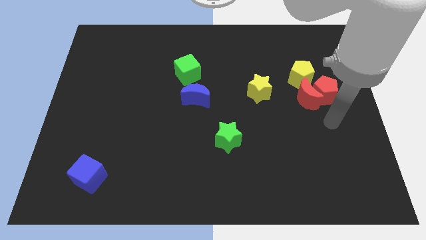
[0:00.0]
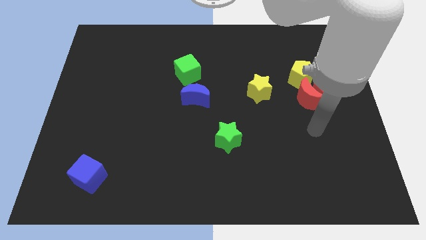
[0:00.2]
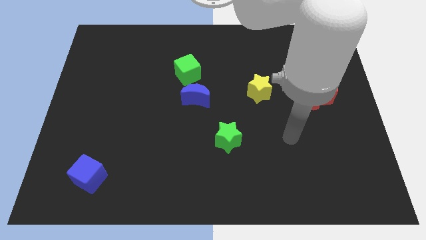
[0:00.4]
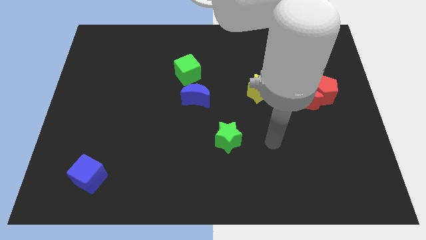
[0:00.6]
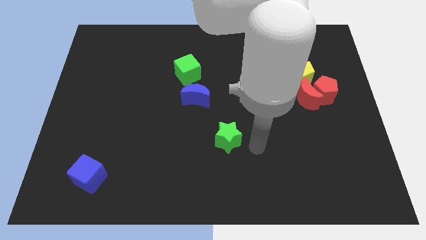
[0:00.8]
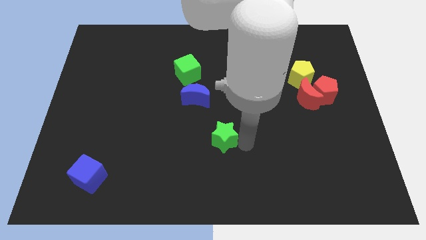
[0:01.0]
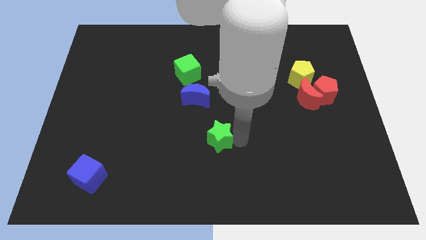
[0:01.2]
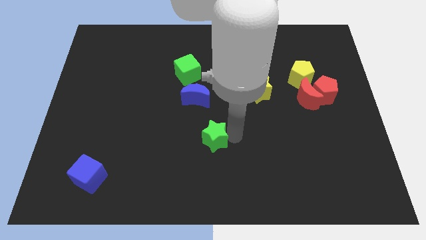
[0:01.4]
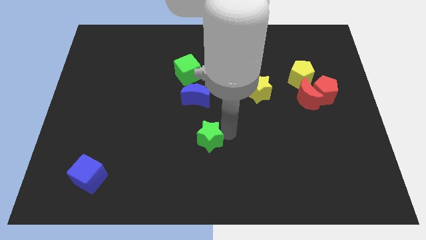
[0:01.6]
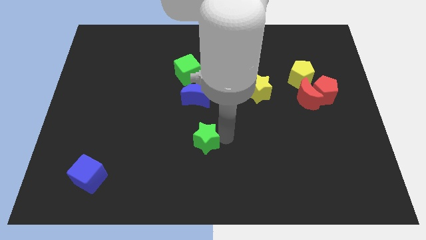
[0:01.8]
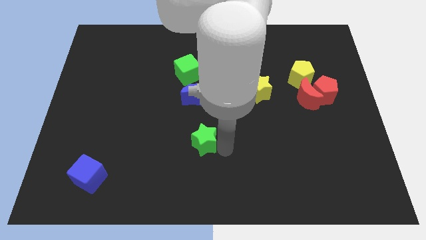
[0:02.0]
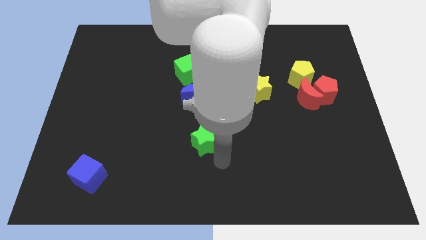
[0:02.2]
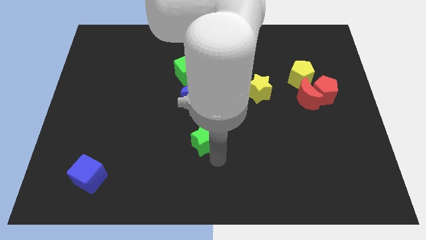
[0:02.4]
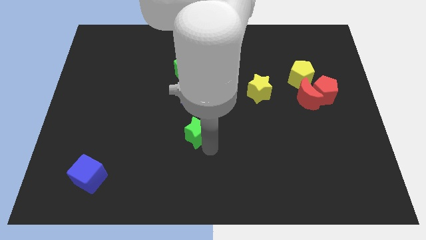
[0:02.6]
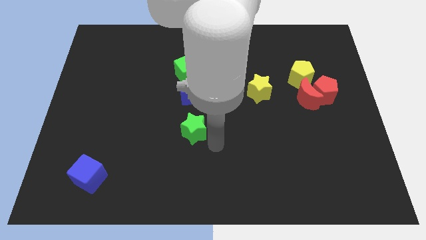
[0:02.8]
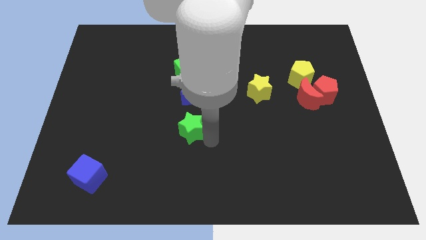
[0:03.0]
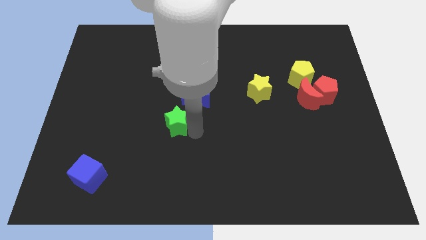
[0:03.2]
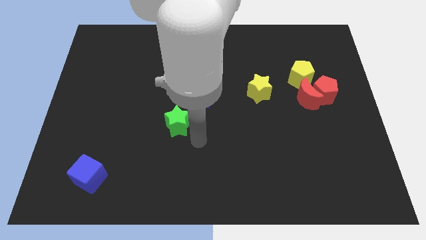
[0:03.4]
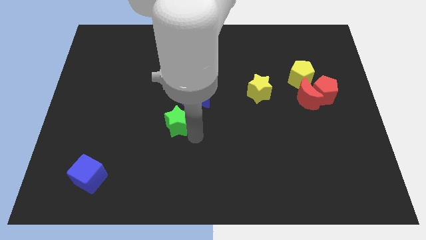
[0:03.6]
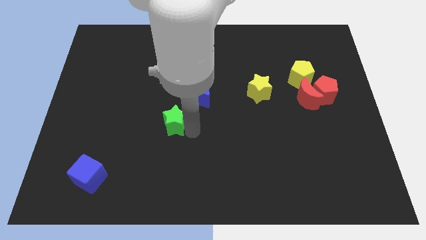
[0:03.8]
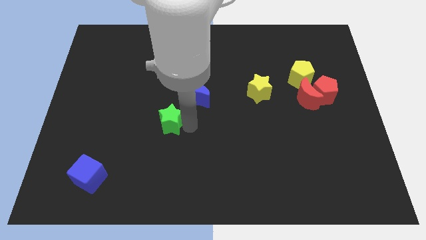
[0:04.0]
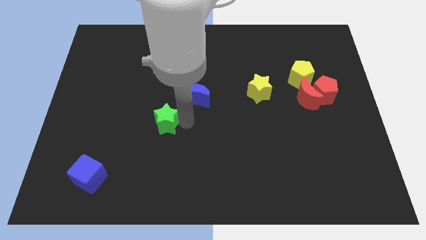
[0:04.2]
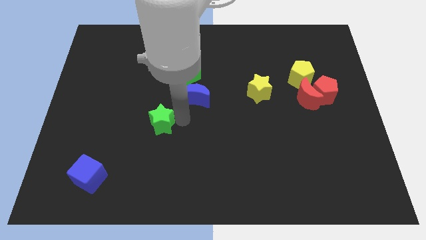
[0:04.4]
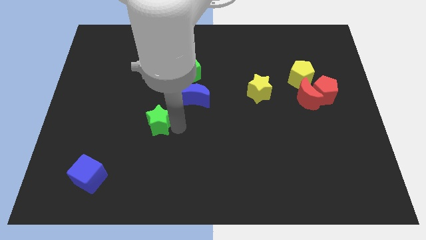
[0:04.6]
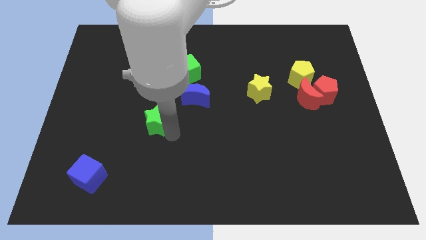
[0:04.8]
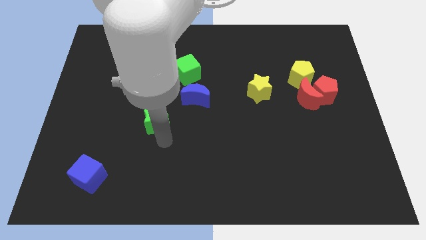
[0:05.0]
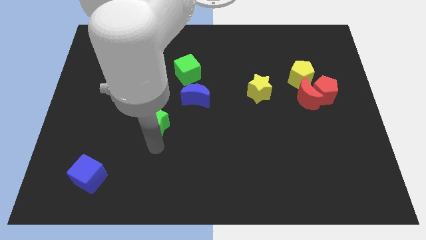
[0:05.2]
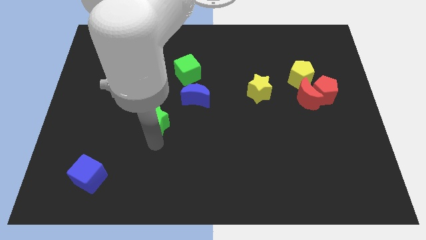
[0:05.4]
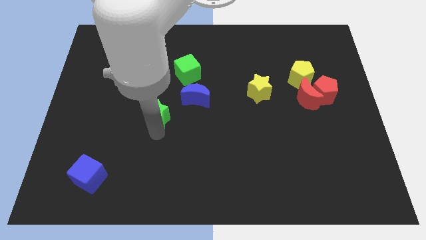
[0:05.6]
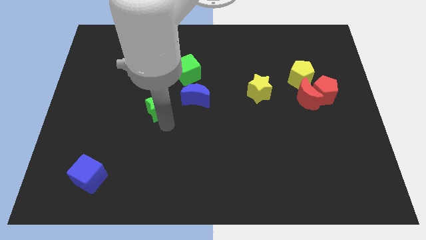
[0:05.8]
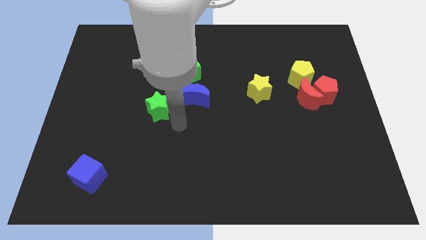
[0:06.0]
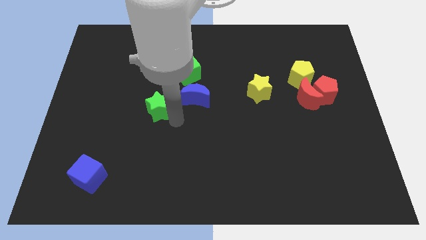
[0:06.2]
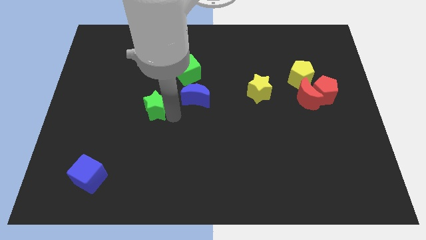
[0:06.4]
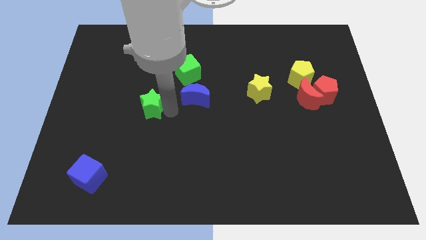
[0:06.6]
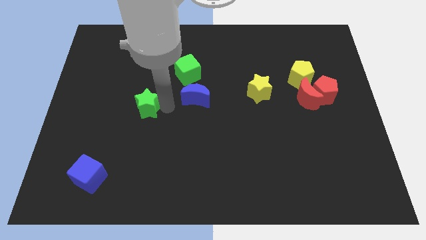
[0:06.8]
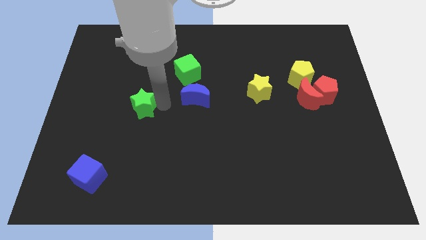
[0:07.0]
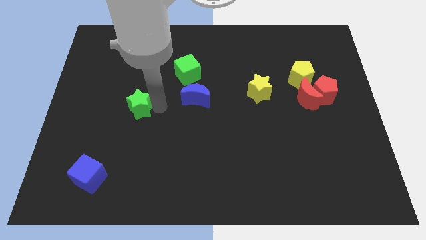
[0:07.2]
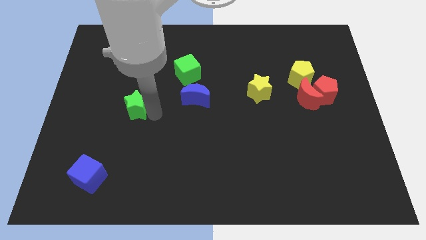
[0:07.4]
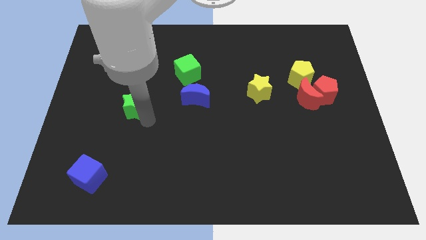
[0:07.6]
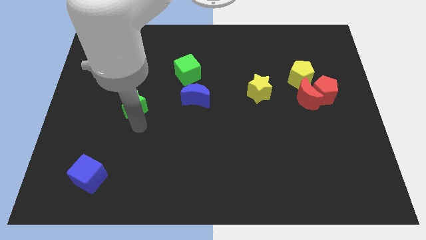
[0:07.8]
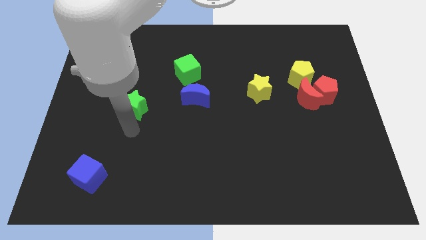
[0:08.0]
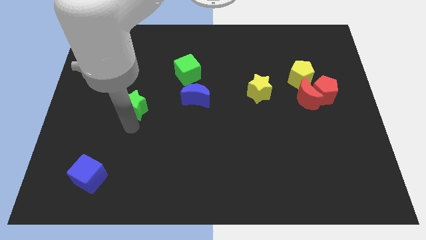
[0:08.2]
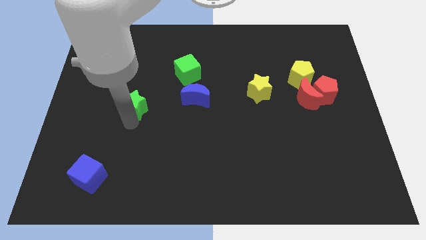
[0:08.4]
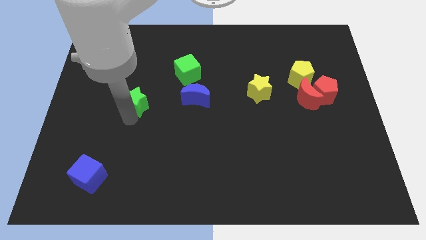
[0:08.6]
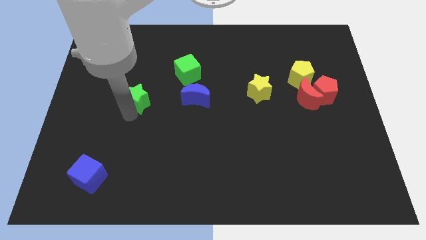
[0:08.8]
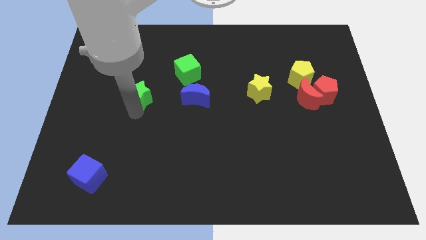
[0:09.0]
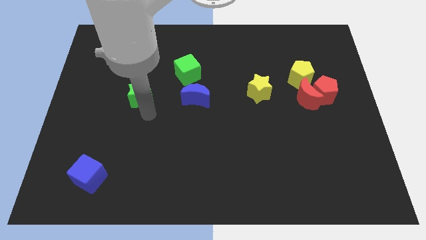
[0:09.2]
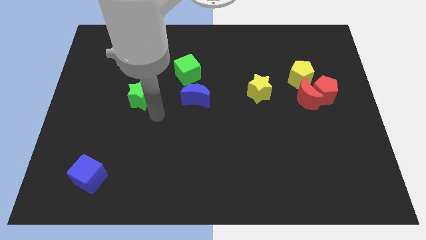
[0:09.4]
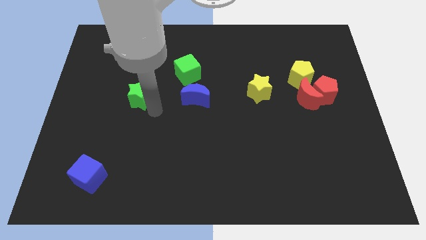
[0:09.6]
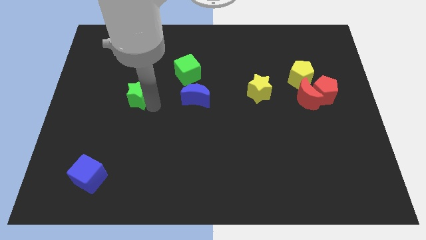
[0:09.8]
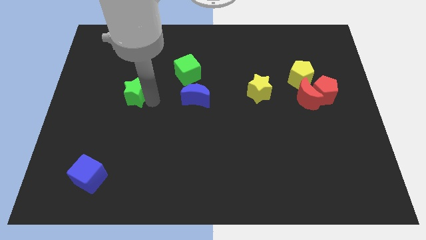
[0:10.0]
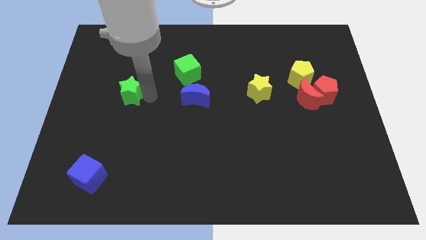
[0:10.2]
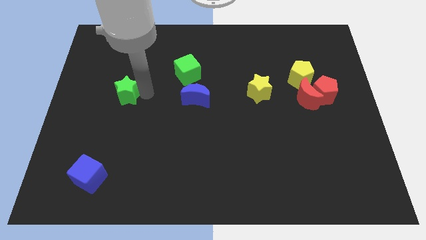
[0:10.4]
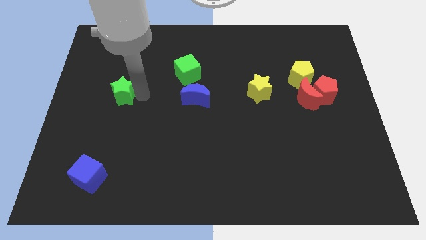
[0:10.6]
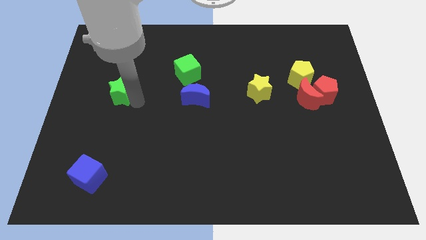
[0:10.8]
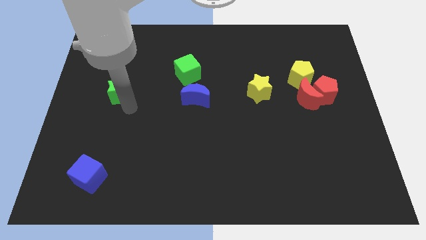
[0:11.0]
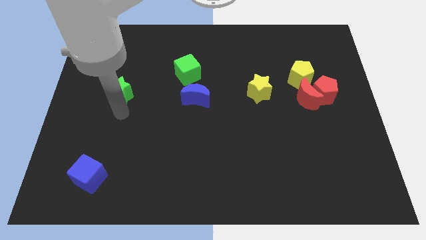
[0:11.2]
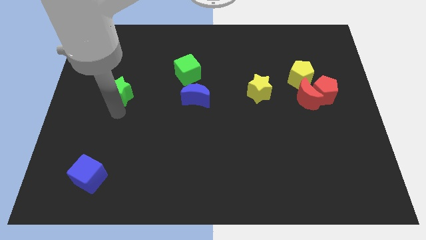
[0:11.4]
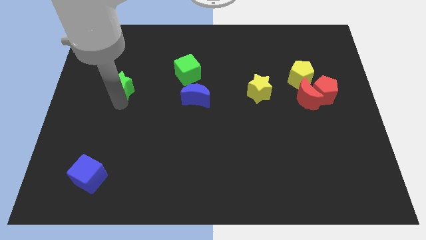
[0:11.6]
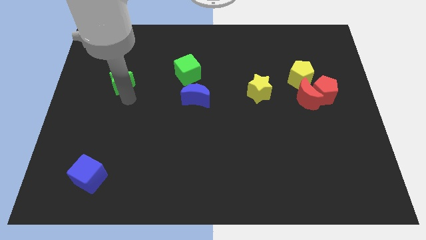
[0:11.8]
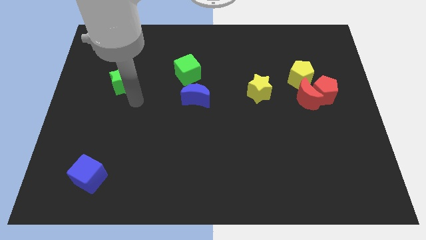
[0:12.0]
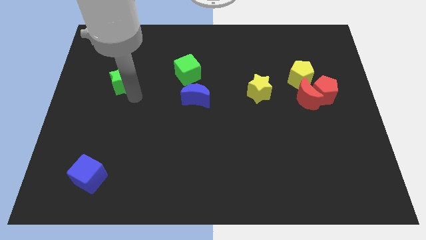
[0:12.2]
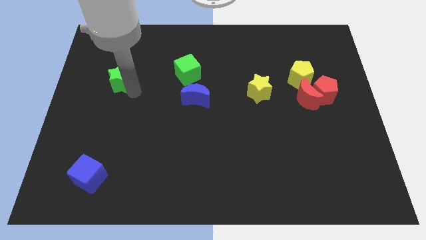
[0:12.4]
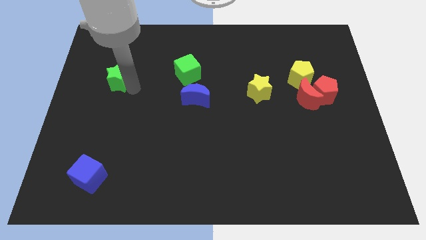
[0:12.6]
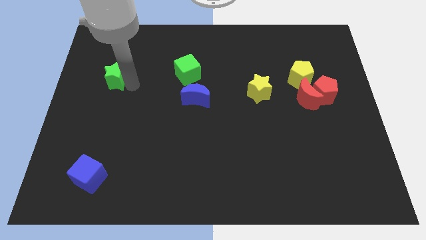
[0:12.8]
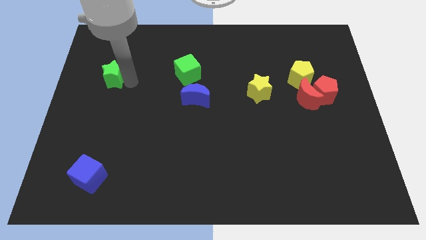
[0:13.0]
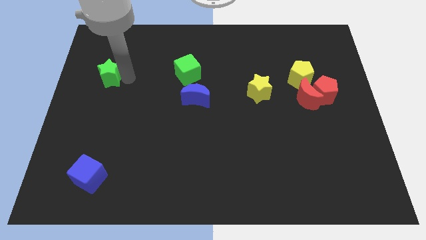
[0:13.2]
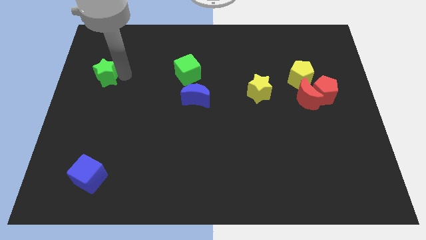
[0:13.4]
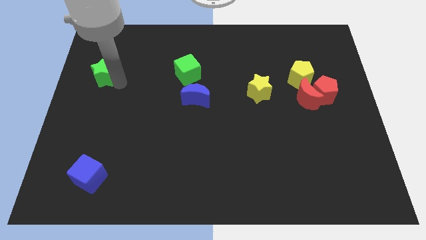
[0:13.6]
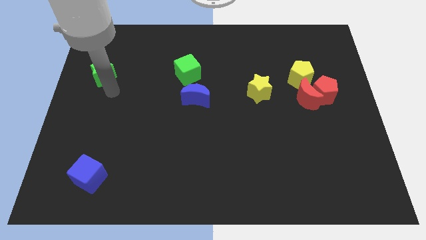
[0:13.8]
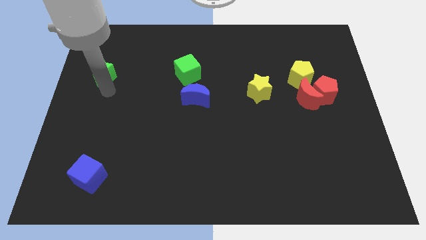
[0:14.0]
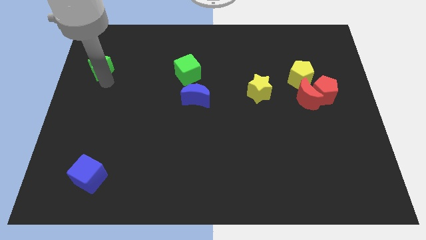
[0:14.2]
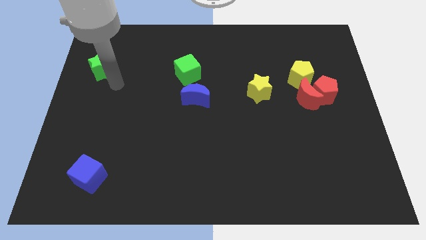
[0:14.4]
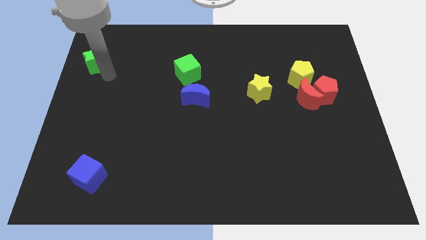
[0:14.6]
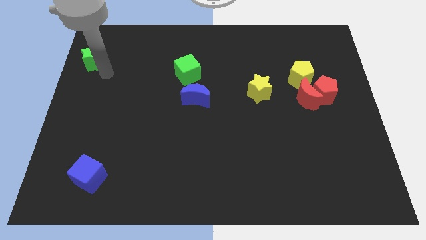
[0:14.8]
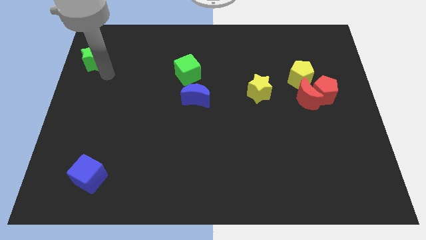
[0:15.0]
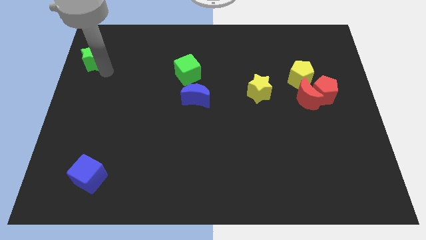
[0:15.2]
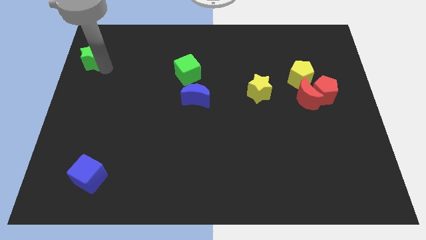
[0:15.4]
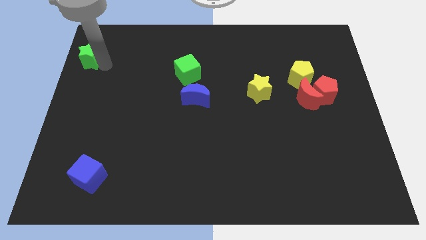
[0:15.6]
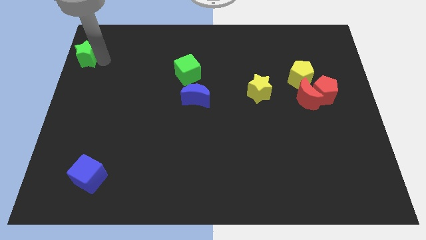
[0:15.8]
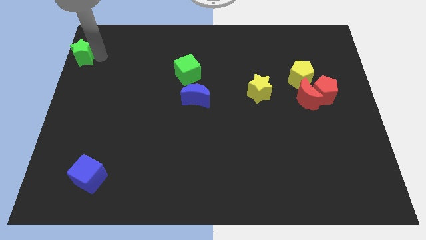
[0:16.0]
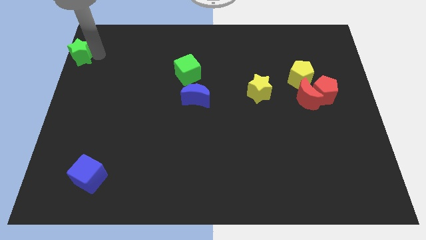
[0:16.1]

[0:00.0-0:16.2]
push the green star to the top left
